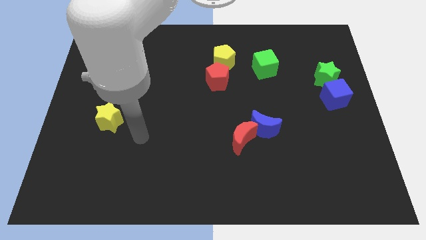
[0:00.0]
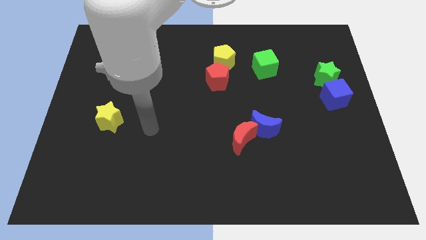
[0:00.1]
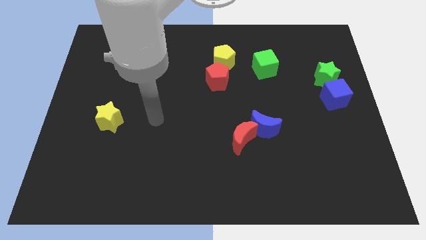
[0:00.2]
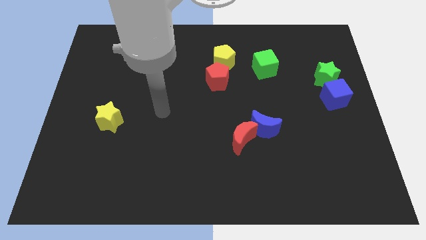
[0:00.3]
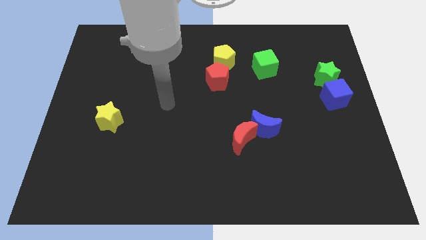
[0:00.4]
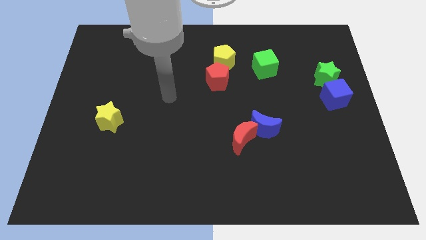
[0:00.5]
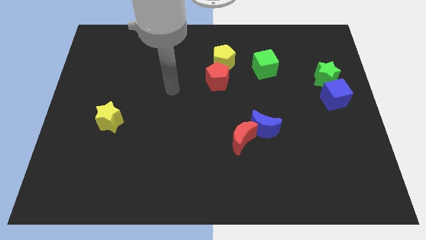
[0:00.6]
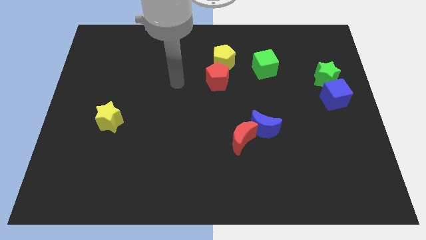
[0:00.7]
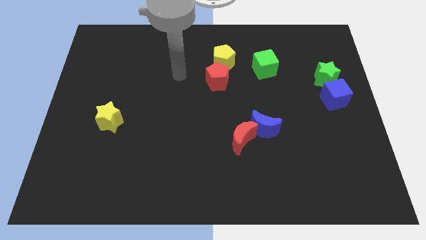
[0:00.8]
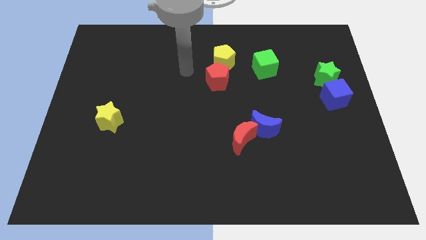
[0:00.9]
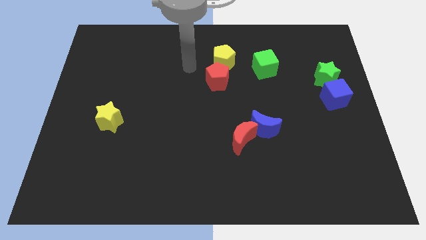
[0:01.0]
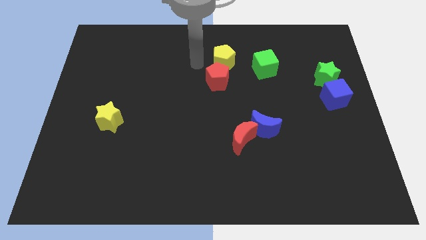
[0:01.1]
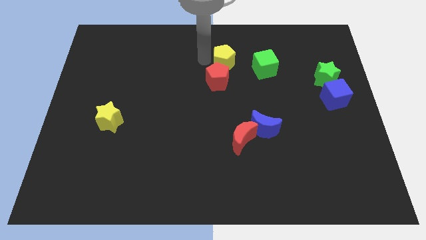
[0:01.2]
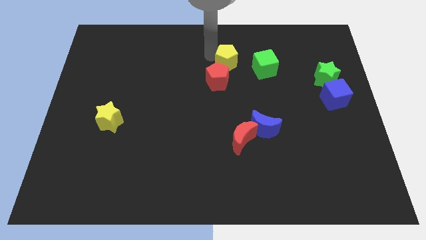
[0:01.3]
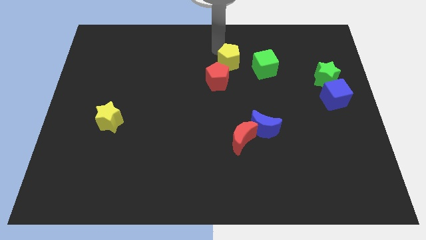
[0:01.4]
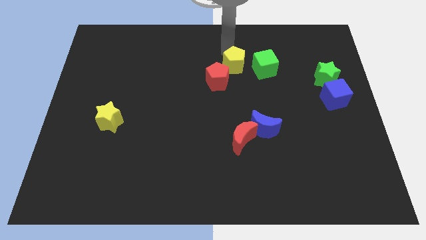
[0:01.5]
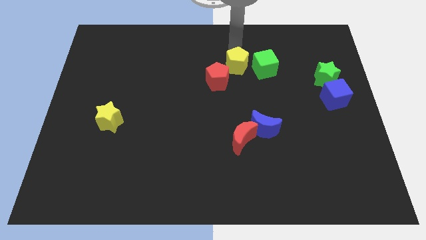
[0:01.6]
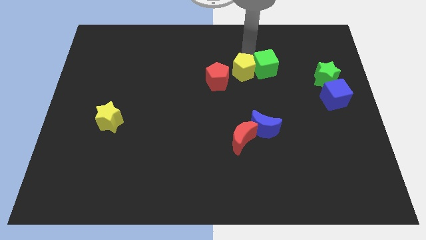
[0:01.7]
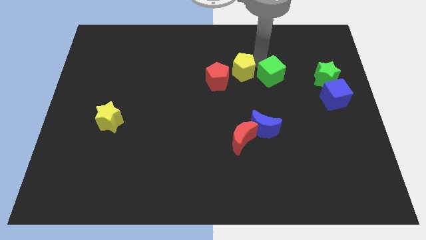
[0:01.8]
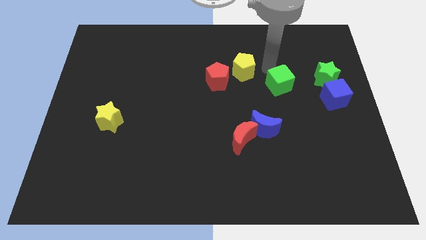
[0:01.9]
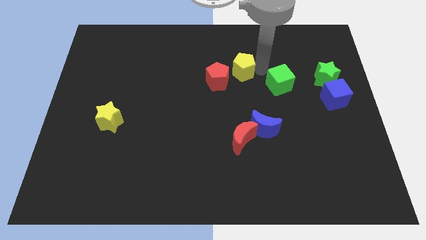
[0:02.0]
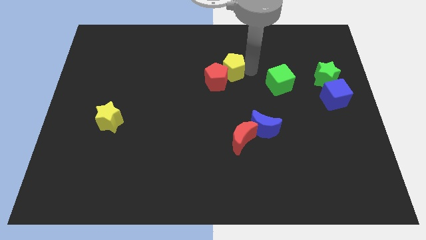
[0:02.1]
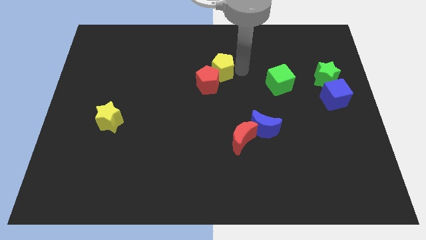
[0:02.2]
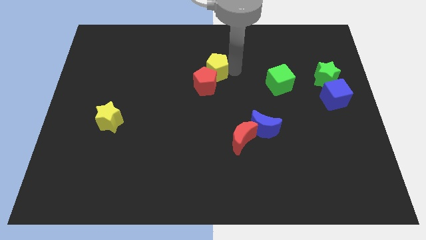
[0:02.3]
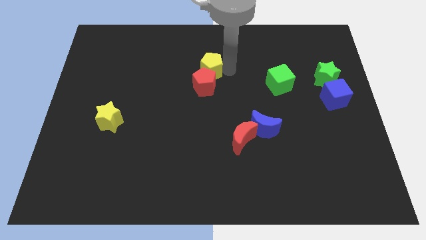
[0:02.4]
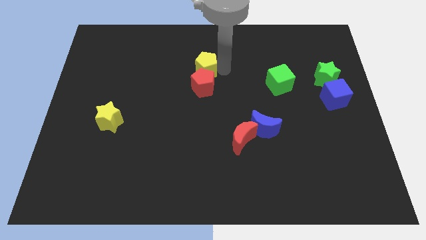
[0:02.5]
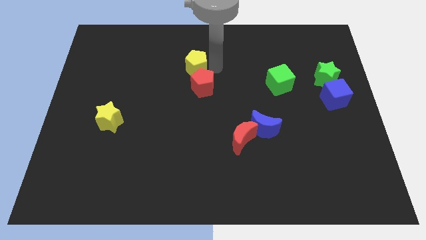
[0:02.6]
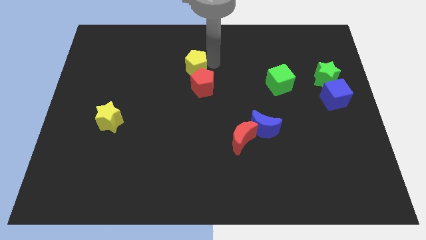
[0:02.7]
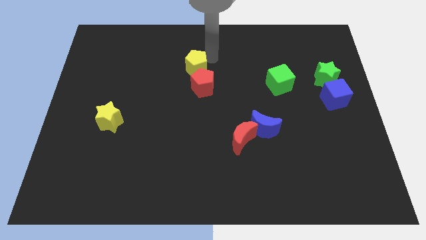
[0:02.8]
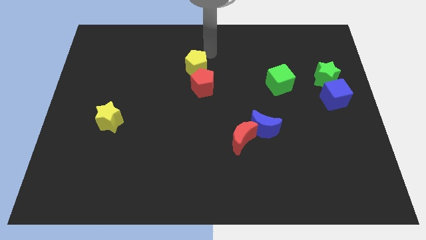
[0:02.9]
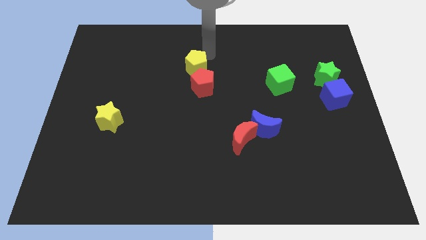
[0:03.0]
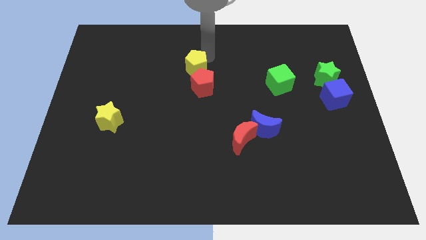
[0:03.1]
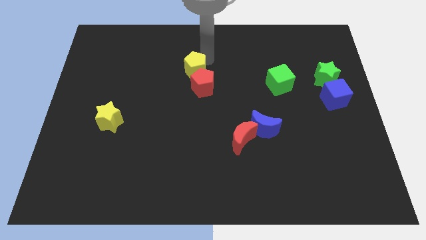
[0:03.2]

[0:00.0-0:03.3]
push the yellow pentagon diagonally down and left a little bit

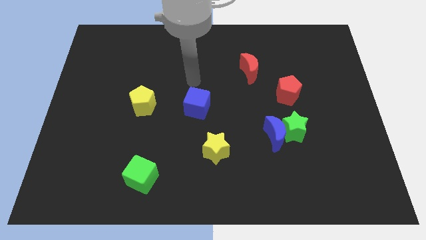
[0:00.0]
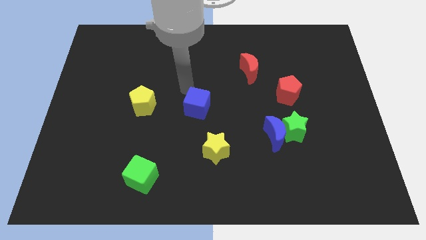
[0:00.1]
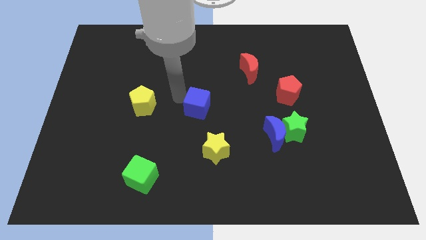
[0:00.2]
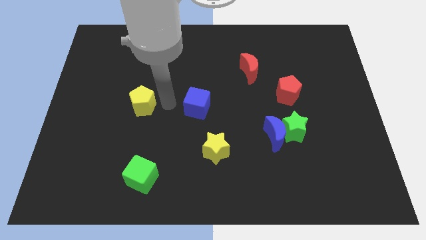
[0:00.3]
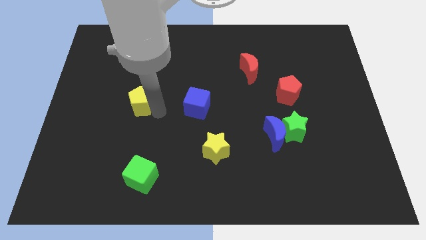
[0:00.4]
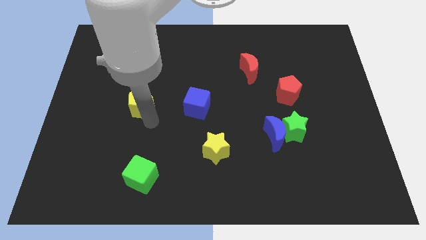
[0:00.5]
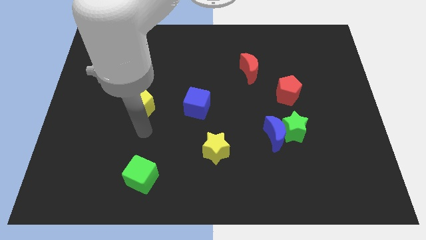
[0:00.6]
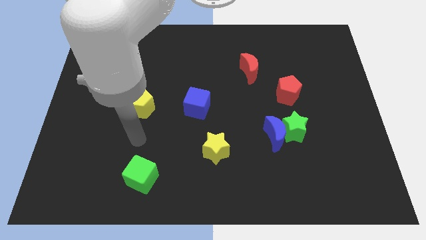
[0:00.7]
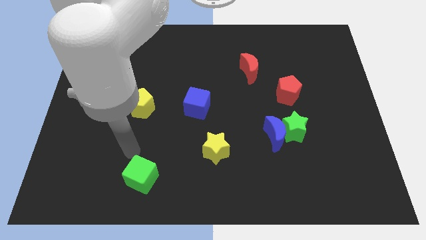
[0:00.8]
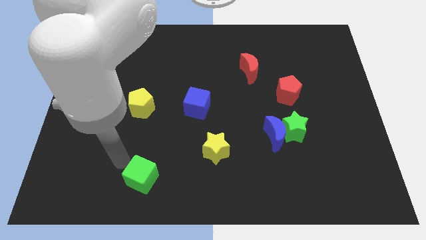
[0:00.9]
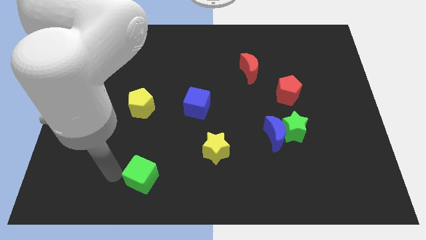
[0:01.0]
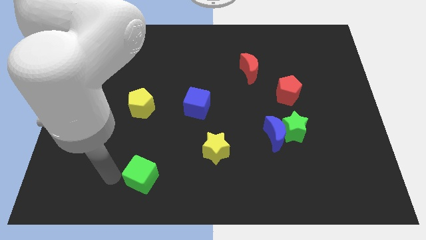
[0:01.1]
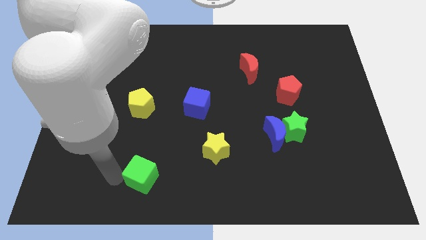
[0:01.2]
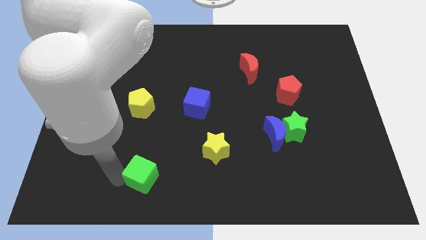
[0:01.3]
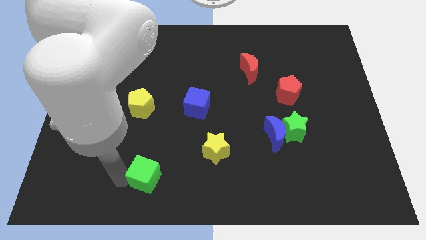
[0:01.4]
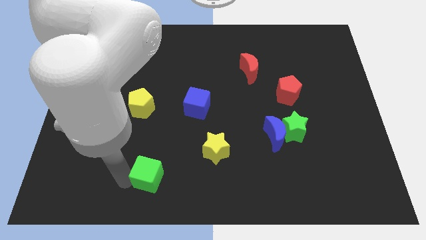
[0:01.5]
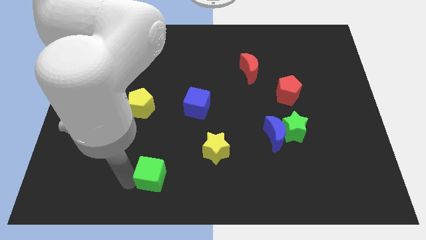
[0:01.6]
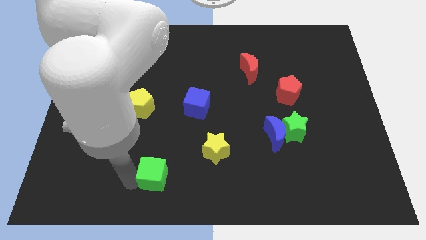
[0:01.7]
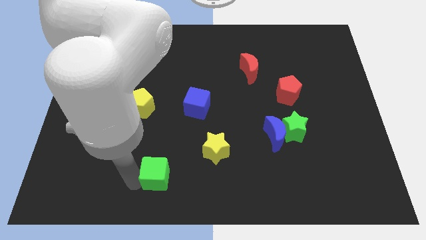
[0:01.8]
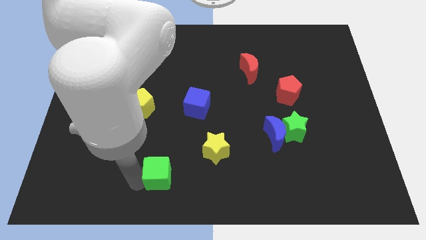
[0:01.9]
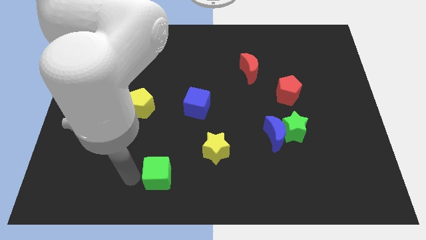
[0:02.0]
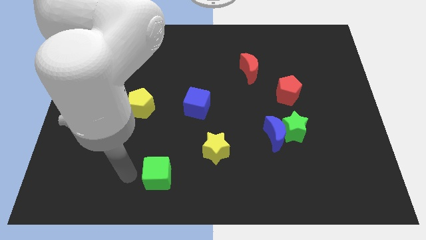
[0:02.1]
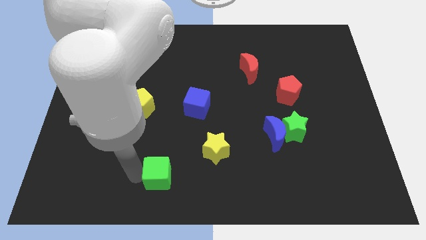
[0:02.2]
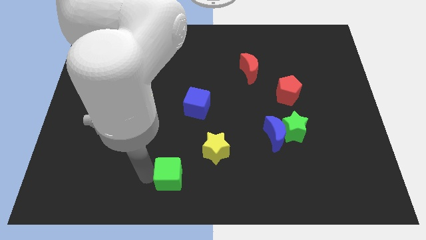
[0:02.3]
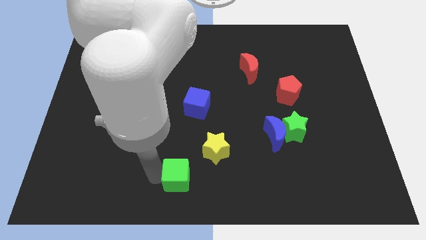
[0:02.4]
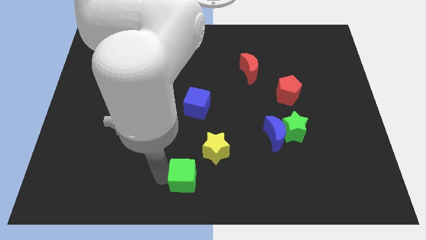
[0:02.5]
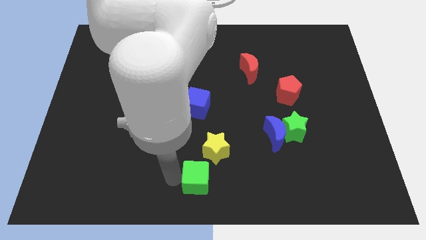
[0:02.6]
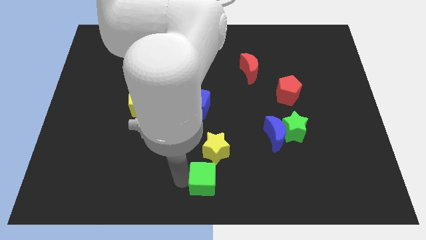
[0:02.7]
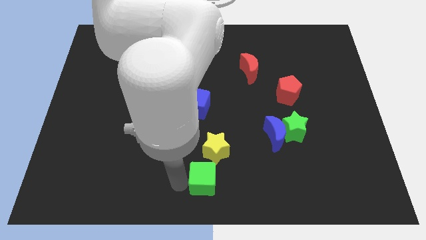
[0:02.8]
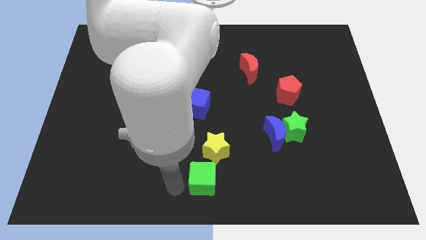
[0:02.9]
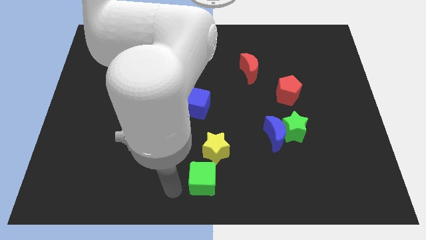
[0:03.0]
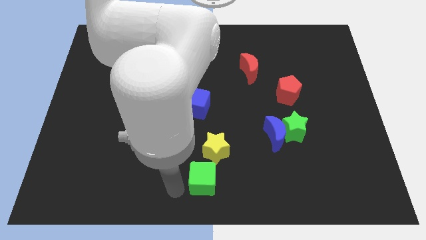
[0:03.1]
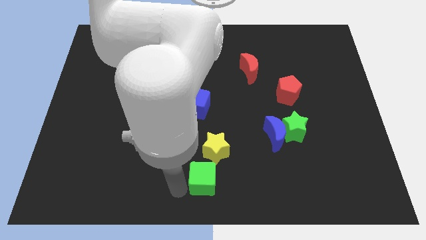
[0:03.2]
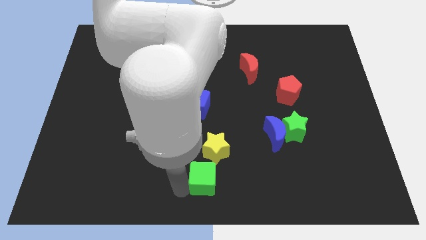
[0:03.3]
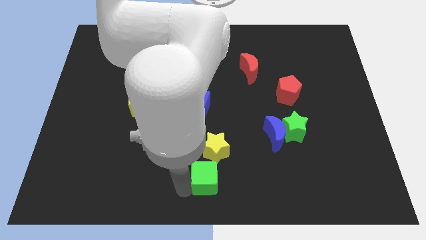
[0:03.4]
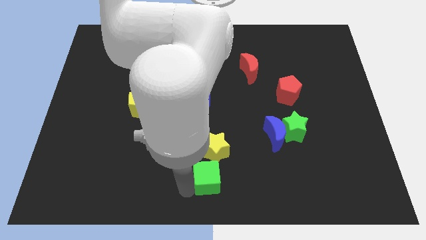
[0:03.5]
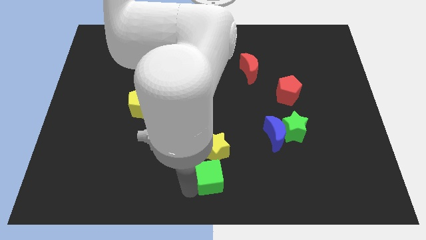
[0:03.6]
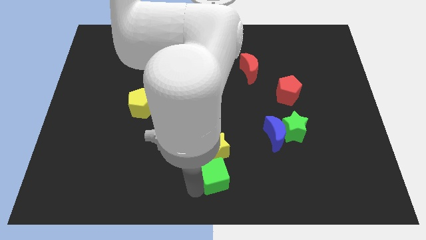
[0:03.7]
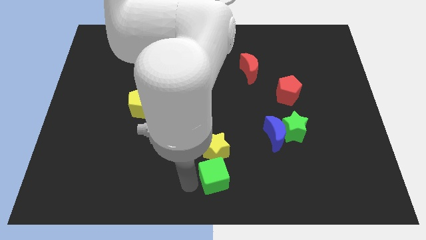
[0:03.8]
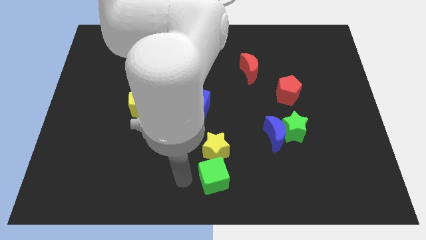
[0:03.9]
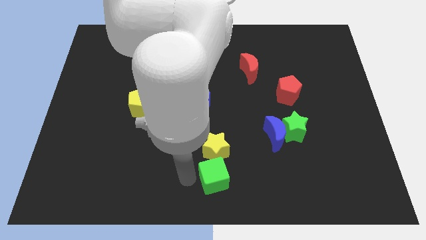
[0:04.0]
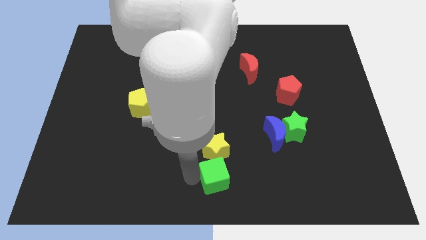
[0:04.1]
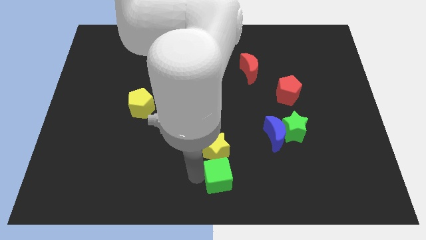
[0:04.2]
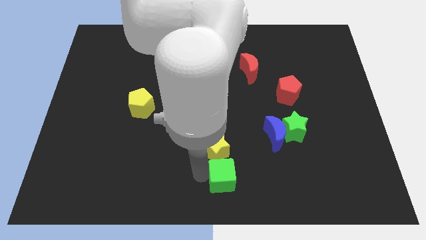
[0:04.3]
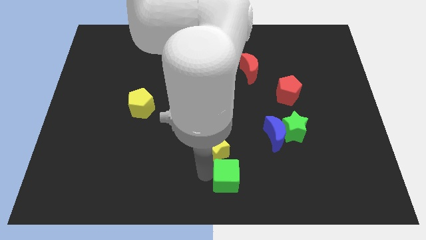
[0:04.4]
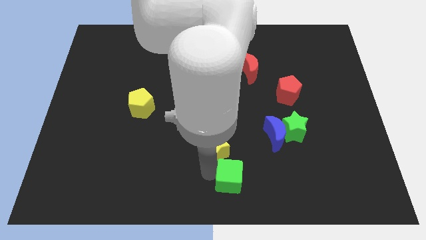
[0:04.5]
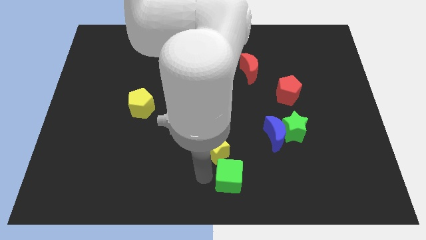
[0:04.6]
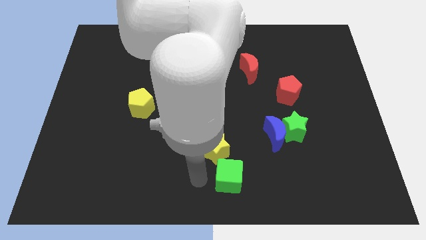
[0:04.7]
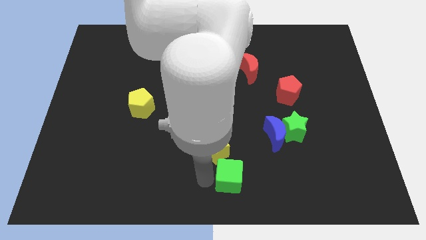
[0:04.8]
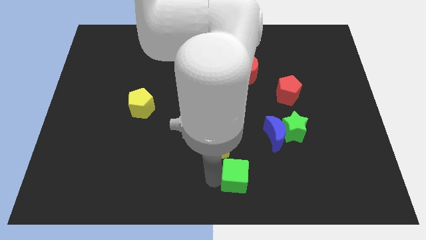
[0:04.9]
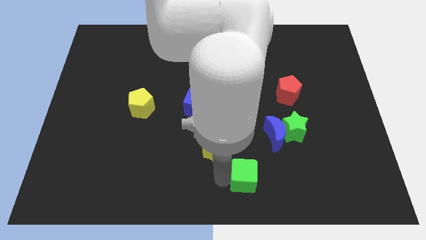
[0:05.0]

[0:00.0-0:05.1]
move the green cube right
